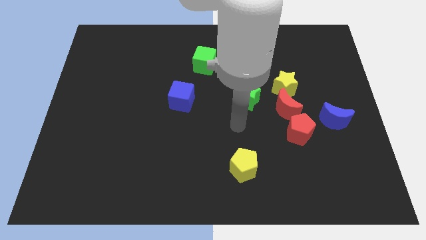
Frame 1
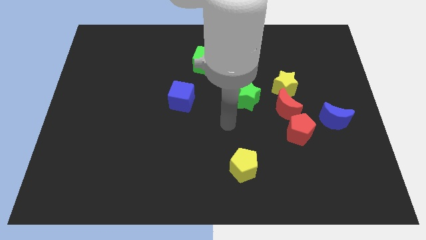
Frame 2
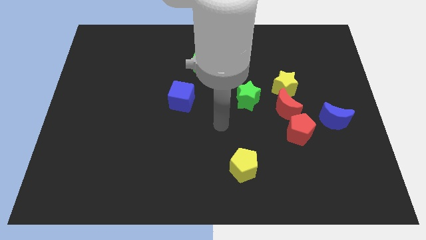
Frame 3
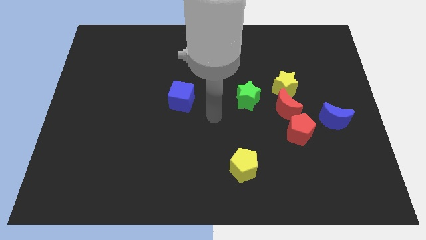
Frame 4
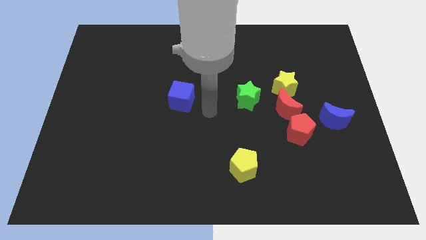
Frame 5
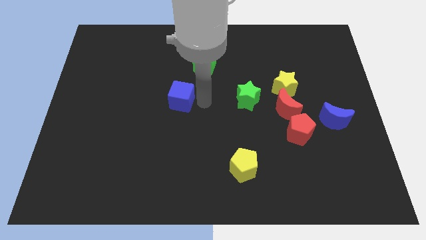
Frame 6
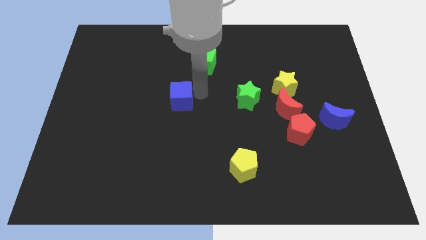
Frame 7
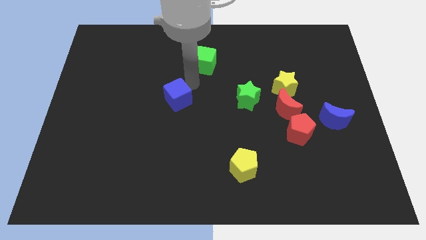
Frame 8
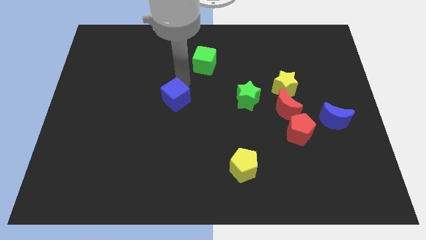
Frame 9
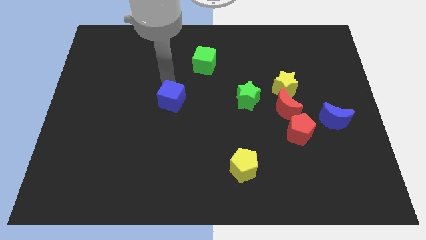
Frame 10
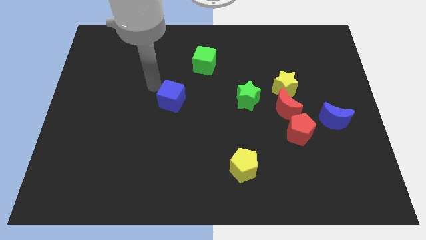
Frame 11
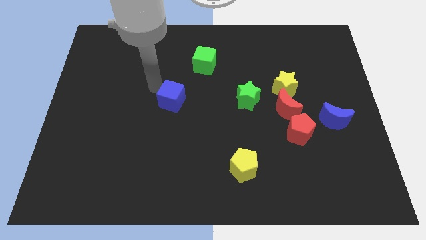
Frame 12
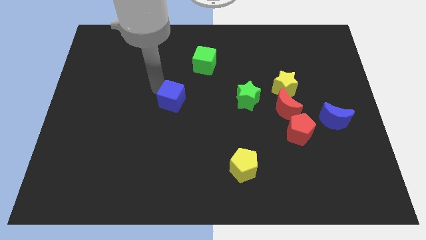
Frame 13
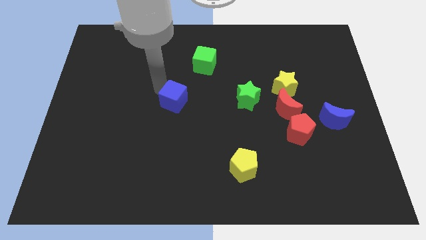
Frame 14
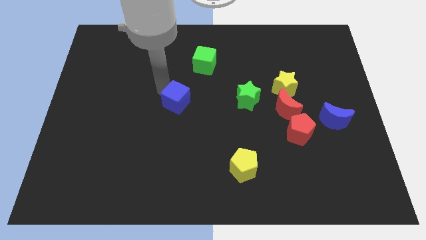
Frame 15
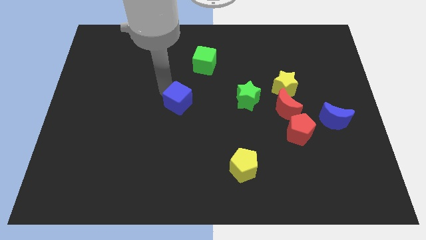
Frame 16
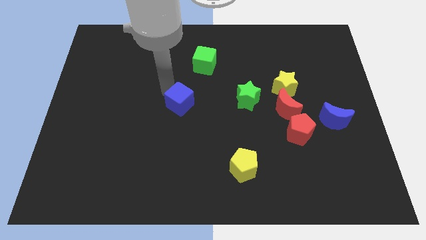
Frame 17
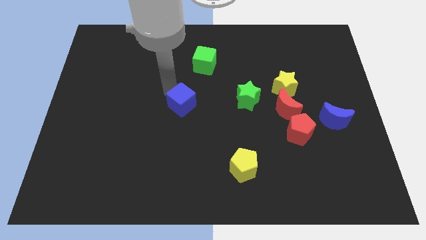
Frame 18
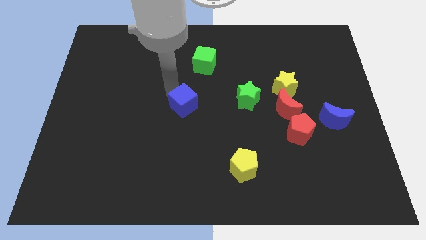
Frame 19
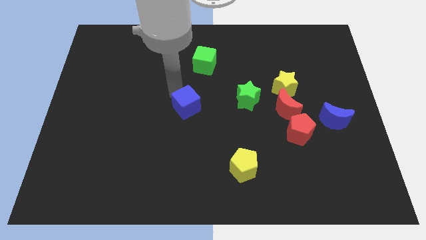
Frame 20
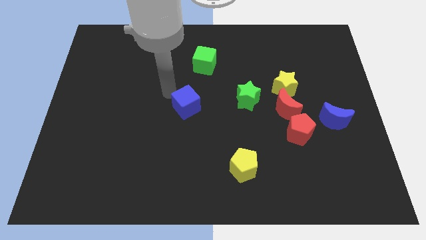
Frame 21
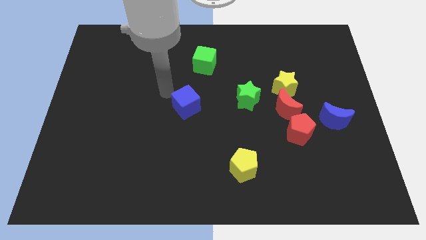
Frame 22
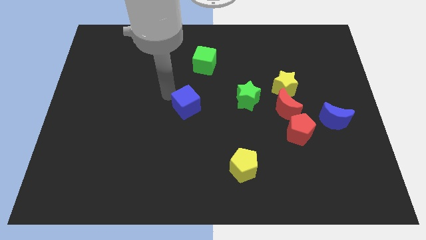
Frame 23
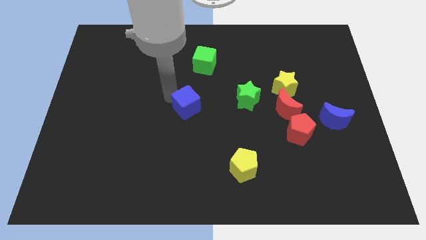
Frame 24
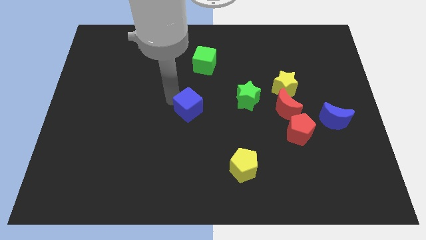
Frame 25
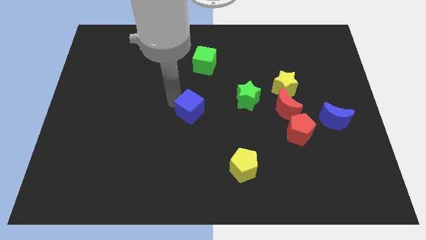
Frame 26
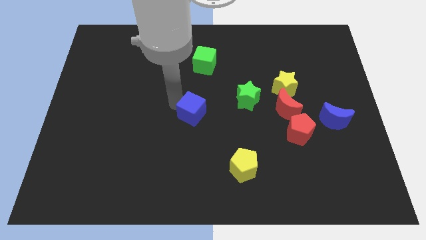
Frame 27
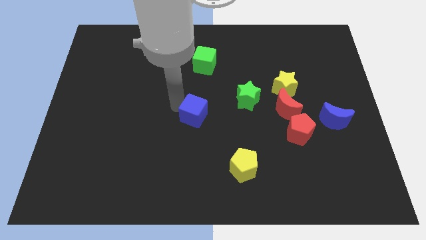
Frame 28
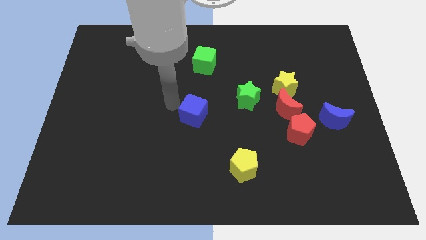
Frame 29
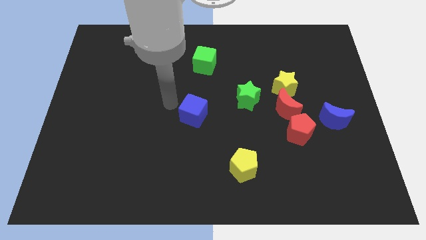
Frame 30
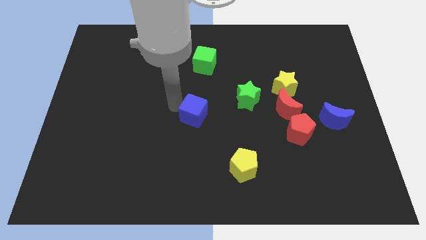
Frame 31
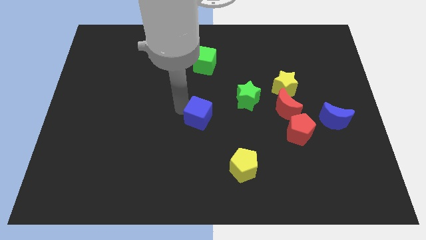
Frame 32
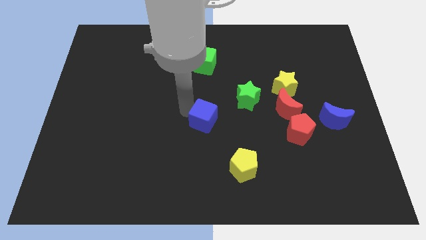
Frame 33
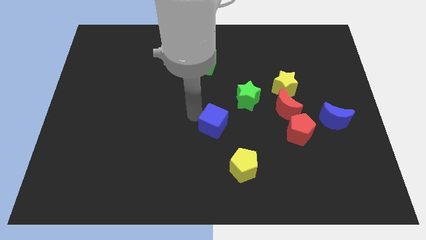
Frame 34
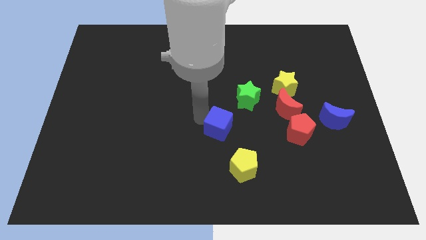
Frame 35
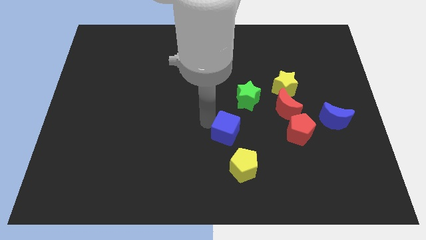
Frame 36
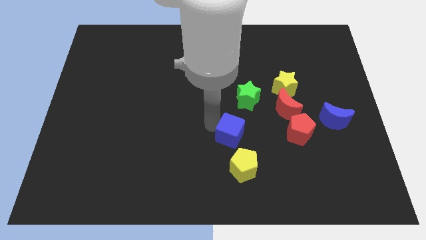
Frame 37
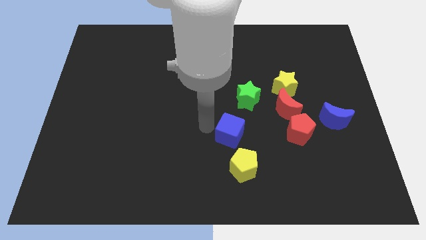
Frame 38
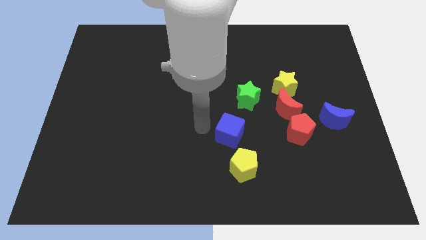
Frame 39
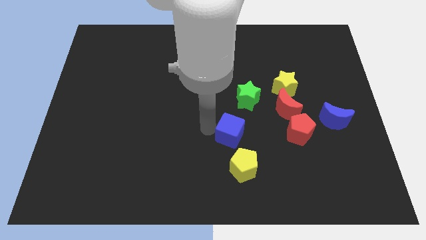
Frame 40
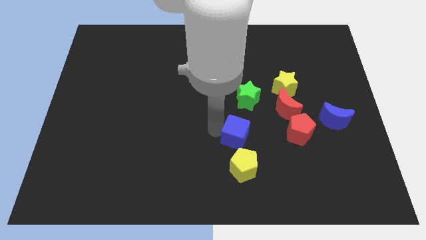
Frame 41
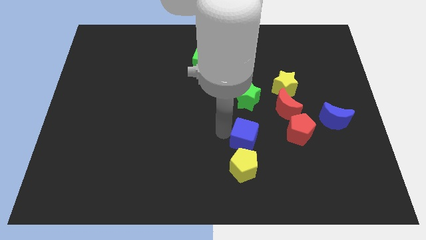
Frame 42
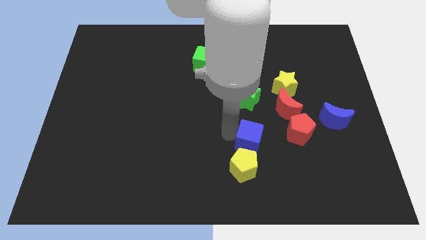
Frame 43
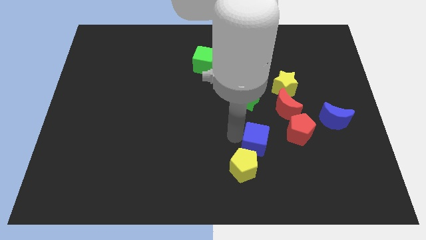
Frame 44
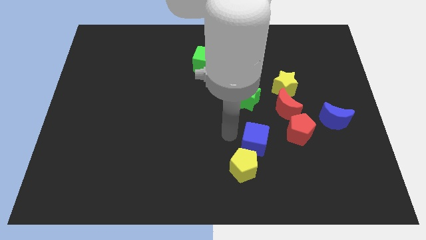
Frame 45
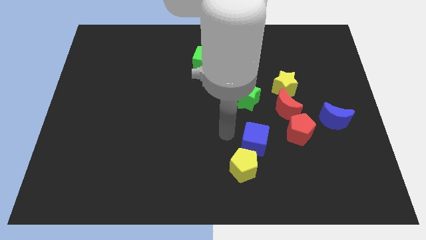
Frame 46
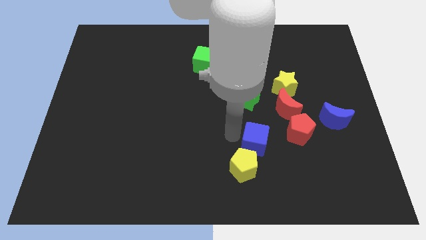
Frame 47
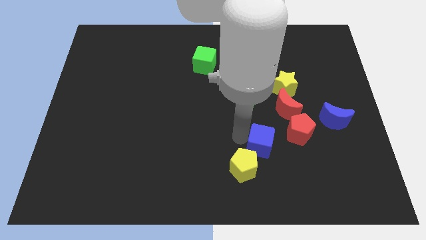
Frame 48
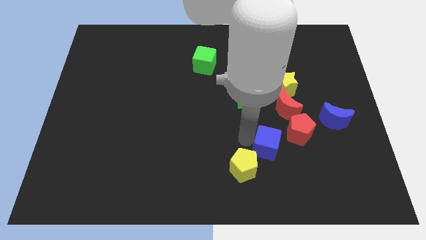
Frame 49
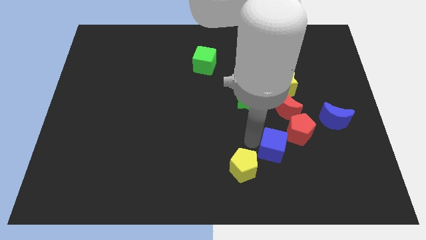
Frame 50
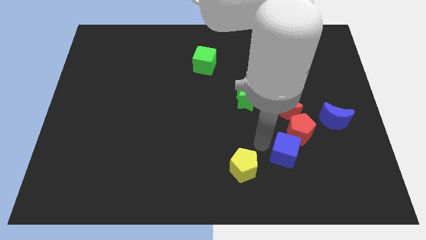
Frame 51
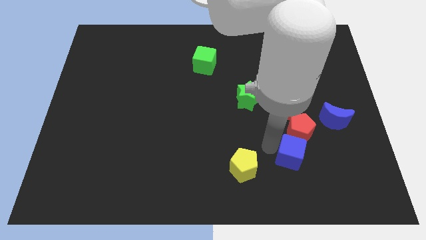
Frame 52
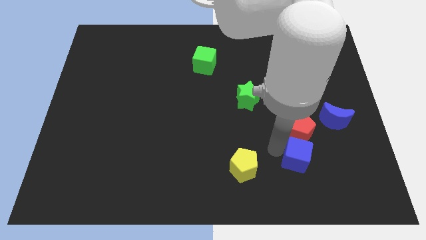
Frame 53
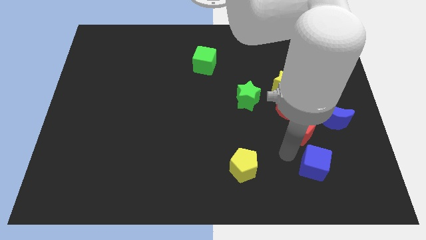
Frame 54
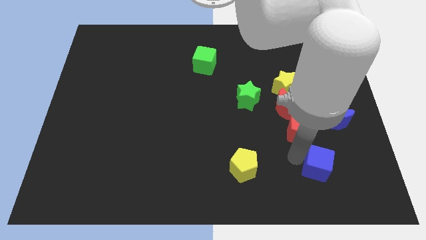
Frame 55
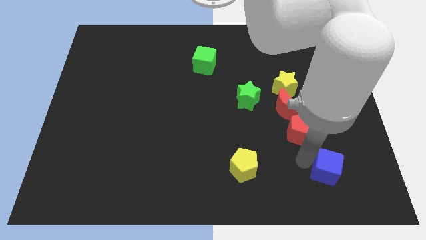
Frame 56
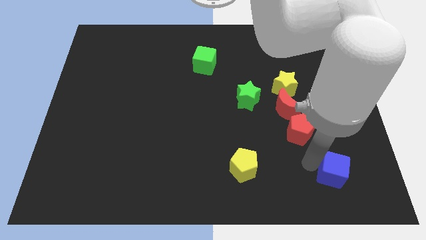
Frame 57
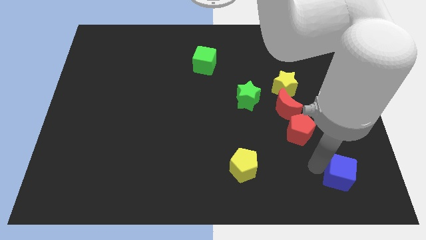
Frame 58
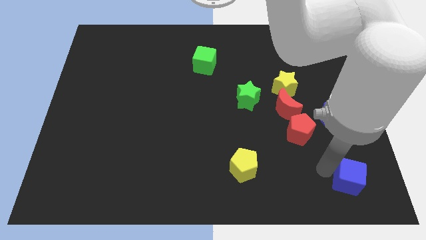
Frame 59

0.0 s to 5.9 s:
move the blue cube to the bottom right of the board

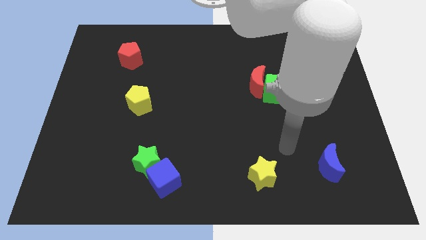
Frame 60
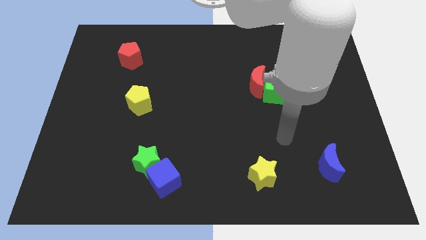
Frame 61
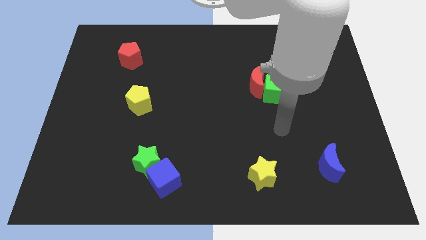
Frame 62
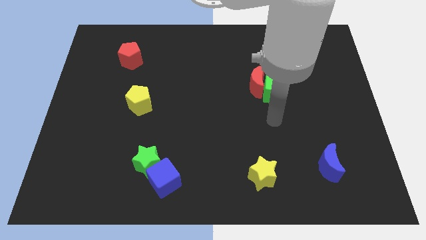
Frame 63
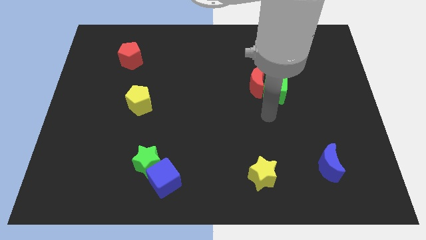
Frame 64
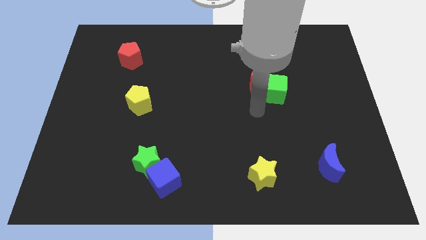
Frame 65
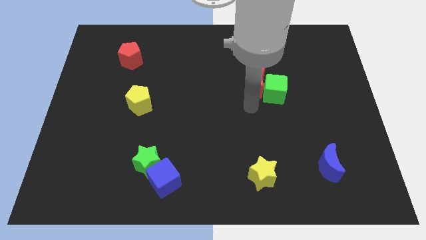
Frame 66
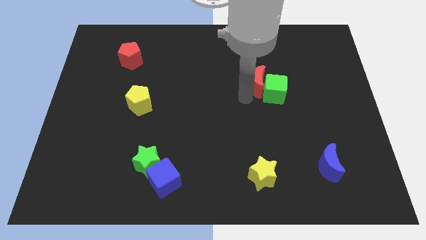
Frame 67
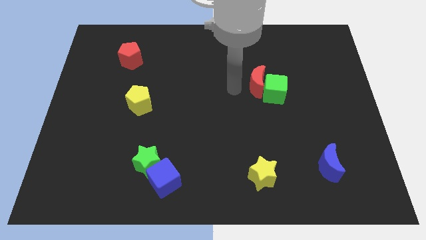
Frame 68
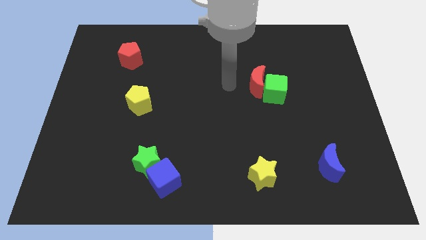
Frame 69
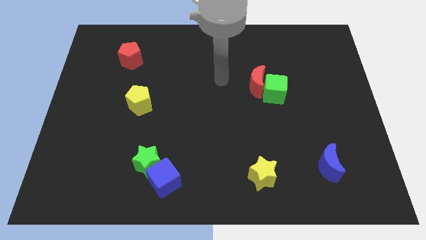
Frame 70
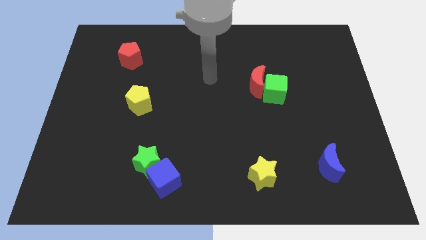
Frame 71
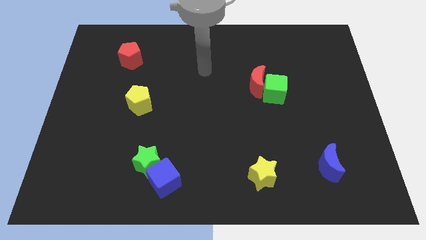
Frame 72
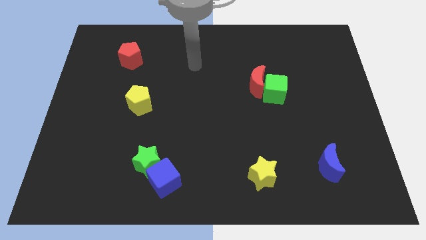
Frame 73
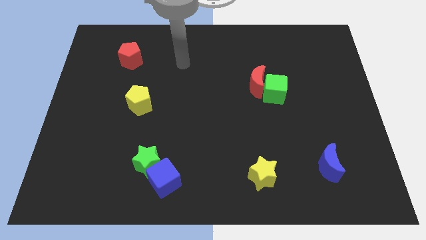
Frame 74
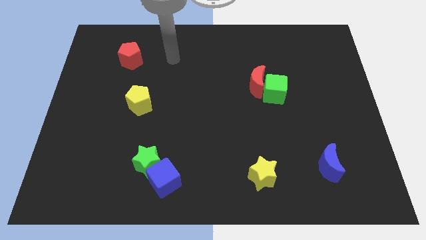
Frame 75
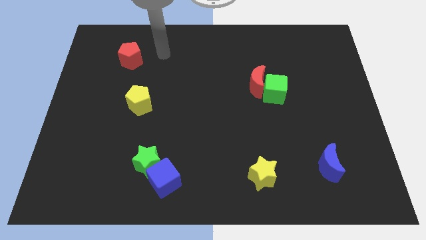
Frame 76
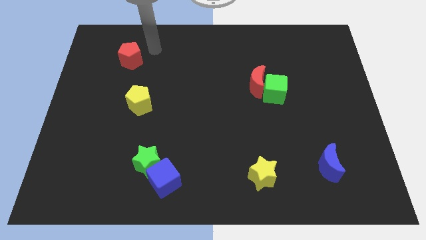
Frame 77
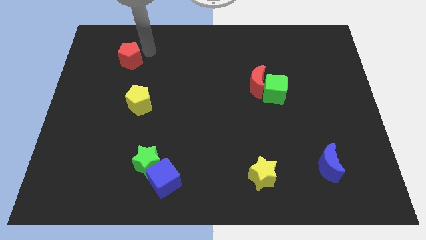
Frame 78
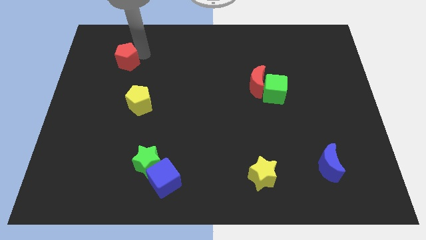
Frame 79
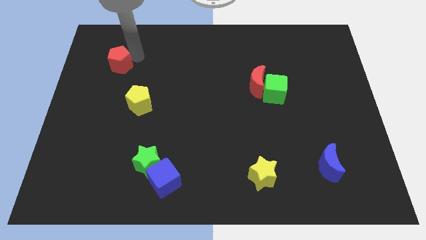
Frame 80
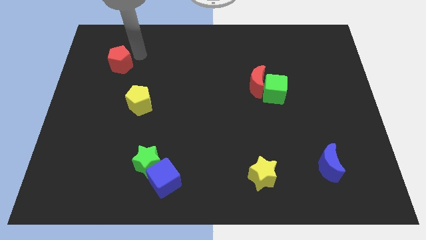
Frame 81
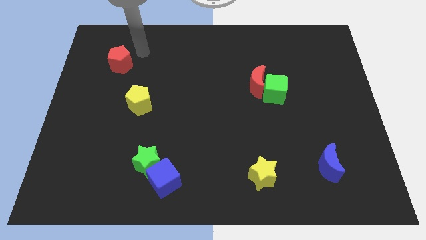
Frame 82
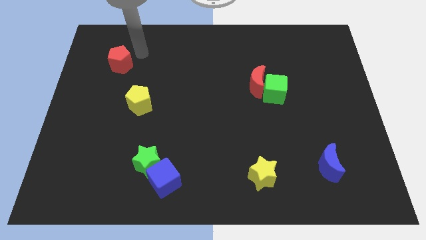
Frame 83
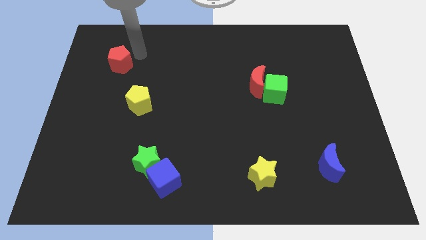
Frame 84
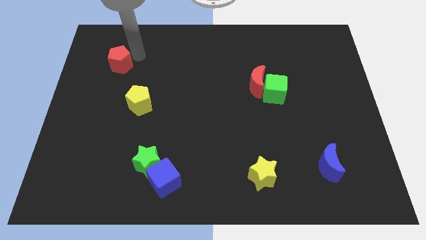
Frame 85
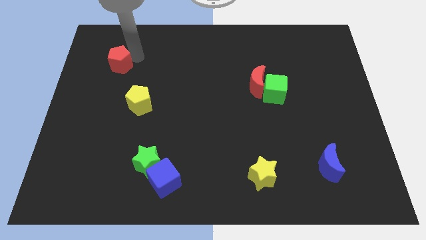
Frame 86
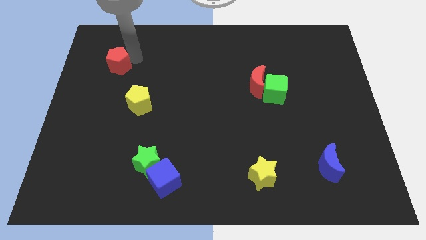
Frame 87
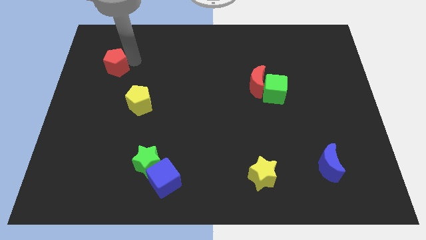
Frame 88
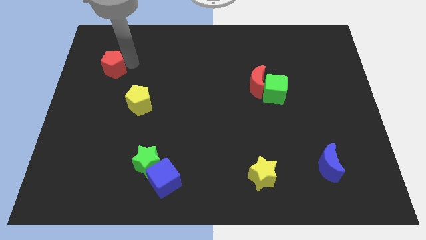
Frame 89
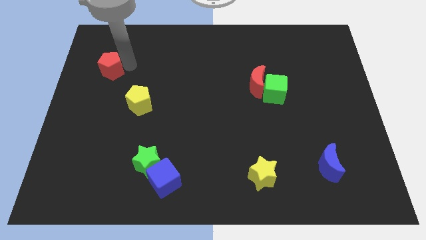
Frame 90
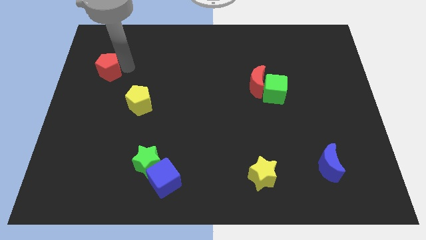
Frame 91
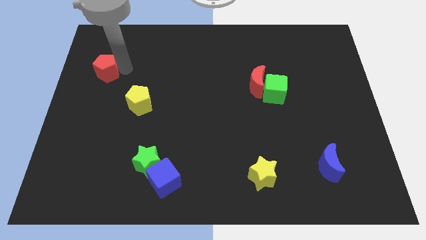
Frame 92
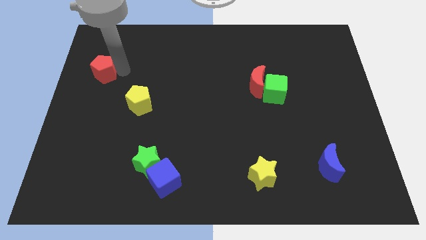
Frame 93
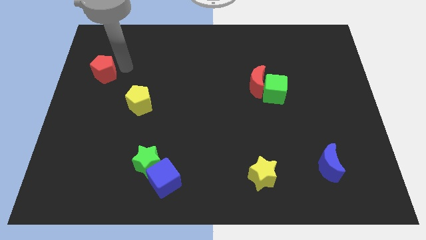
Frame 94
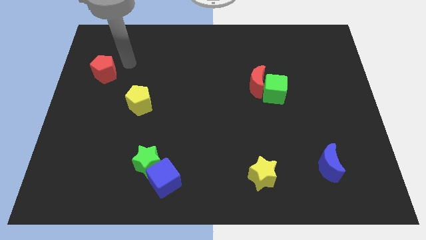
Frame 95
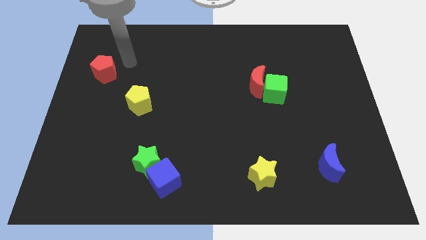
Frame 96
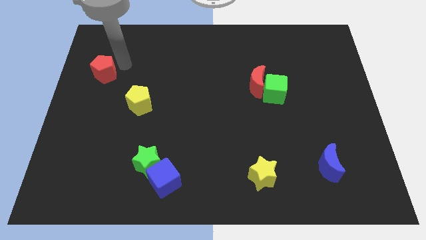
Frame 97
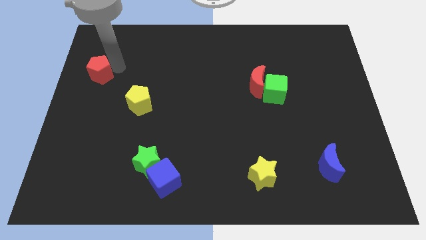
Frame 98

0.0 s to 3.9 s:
push the red pentagon to the left side of the board
